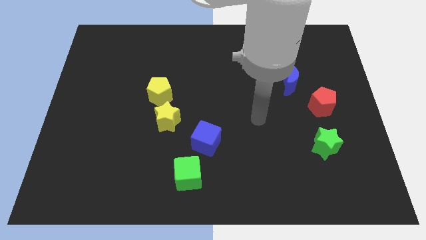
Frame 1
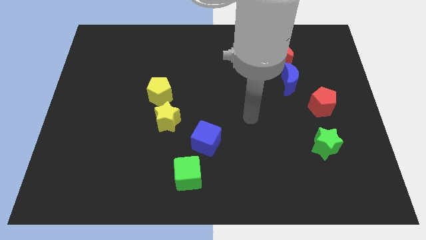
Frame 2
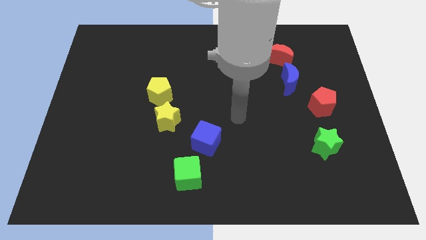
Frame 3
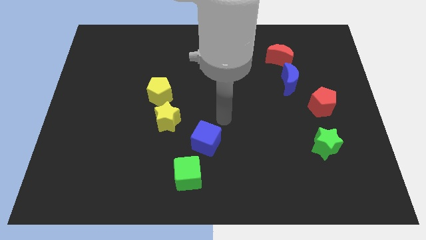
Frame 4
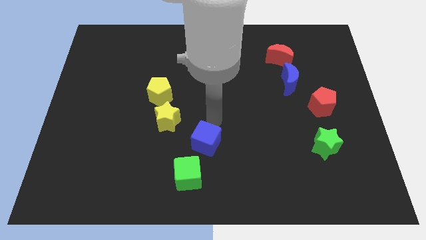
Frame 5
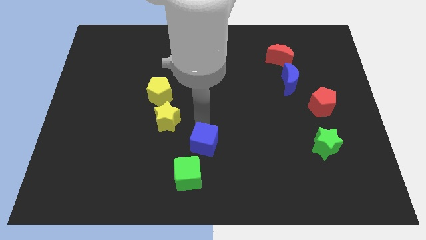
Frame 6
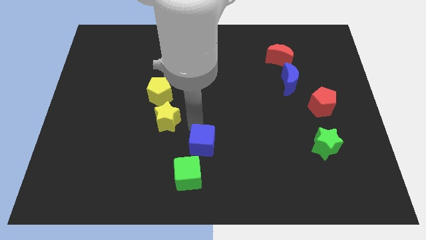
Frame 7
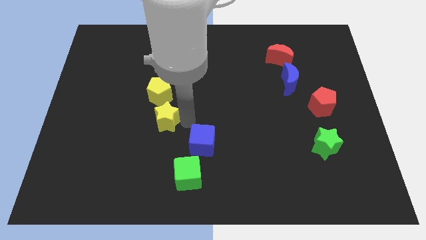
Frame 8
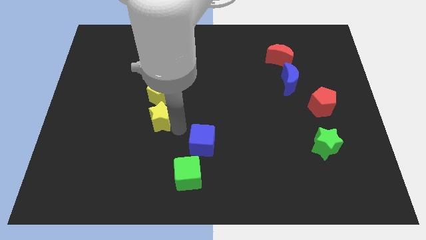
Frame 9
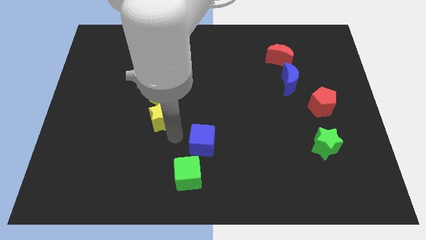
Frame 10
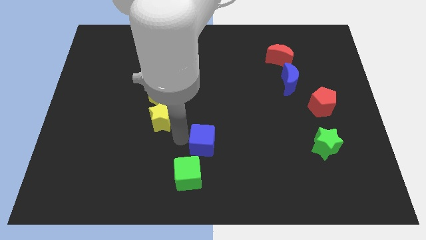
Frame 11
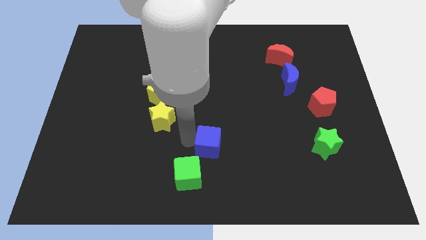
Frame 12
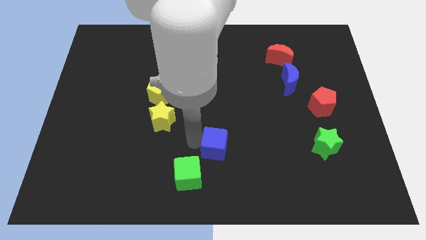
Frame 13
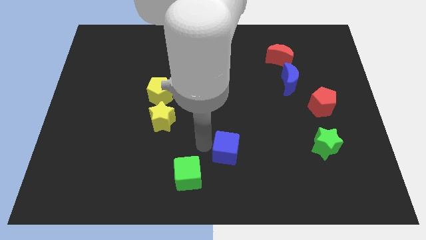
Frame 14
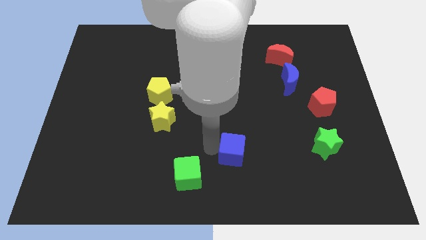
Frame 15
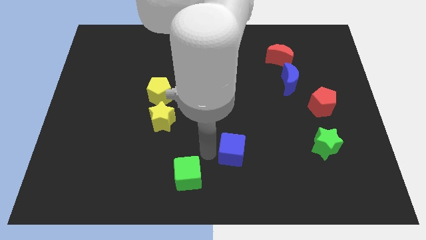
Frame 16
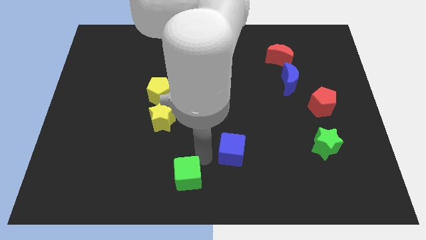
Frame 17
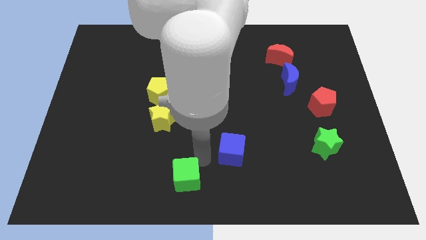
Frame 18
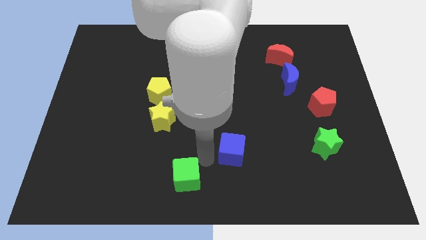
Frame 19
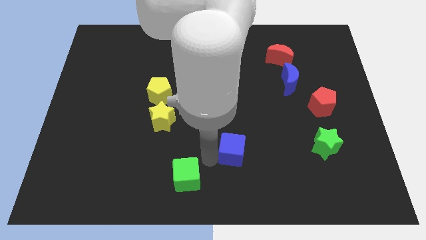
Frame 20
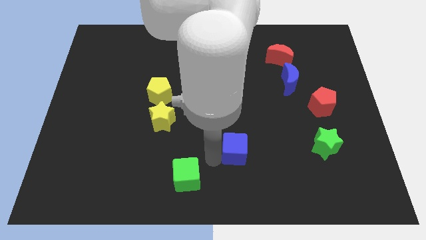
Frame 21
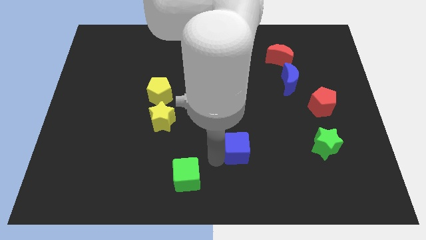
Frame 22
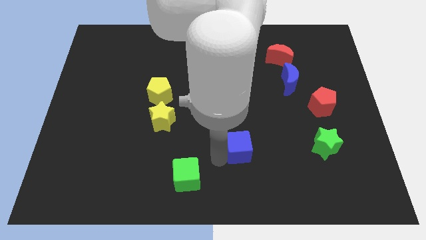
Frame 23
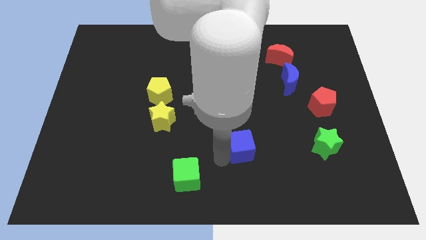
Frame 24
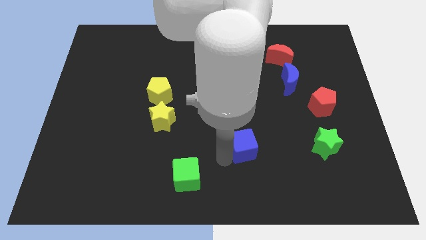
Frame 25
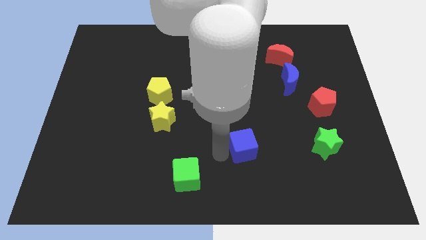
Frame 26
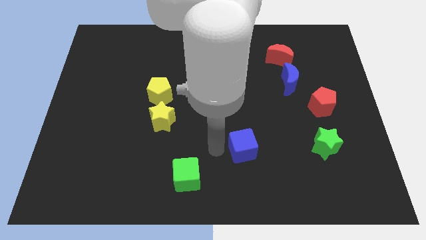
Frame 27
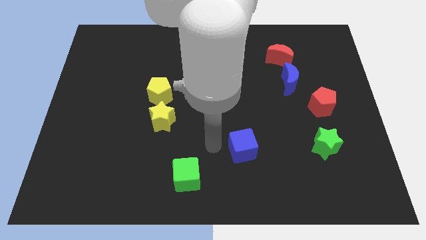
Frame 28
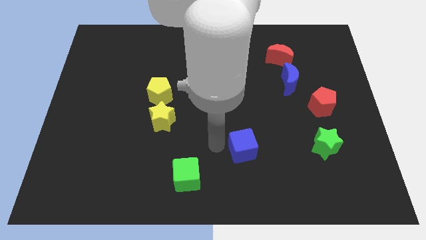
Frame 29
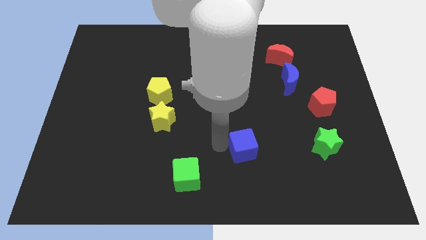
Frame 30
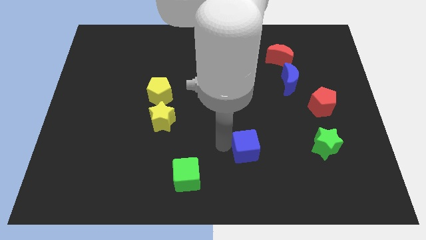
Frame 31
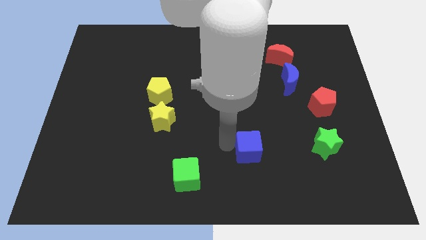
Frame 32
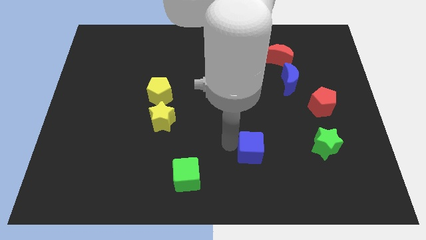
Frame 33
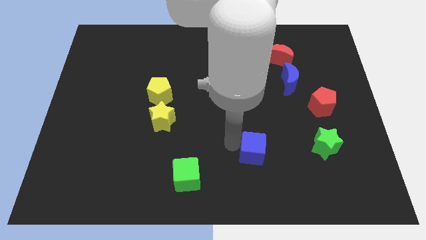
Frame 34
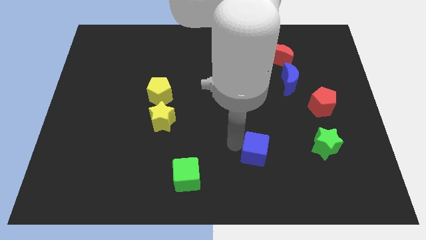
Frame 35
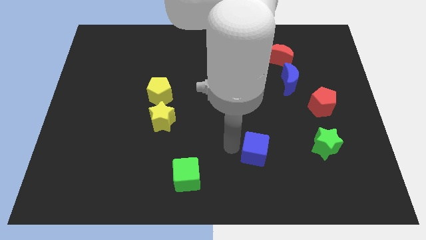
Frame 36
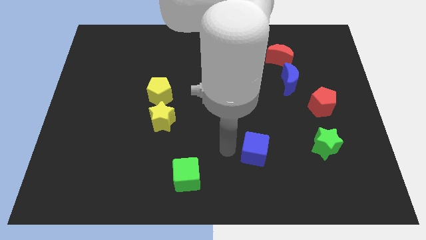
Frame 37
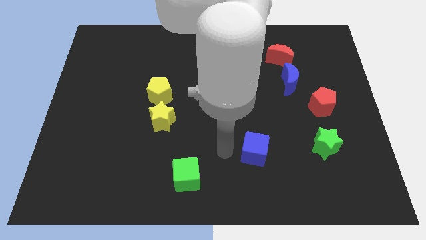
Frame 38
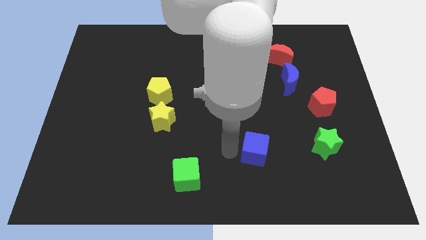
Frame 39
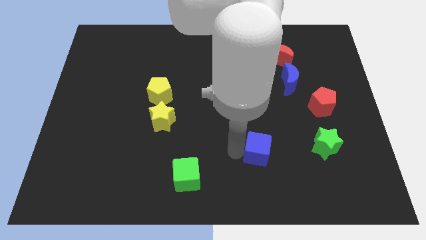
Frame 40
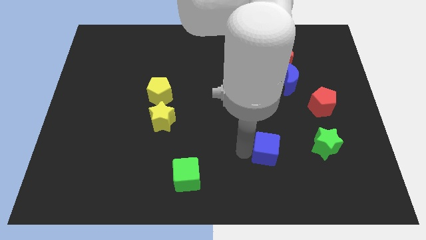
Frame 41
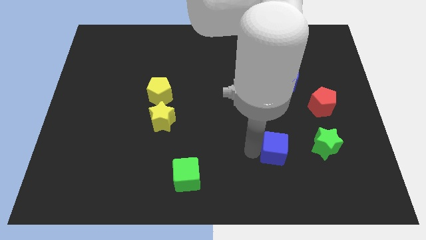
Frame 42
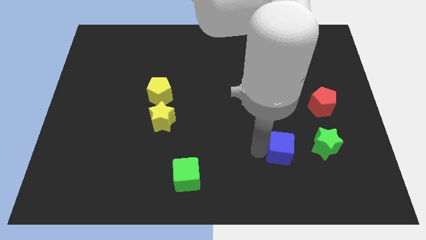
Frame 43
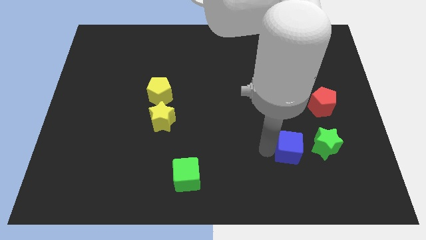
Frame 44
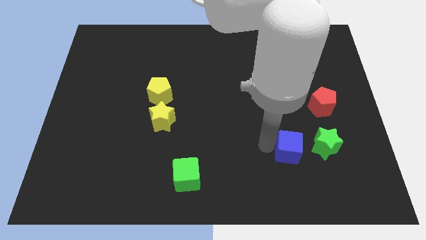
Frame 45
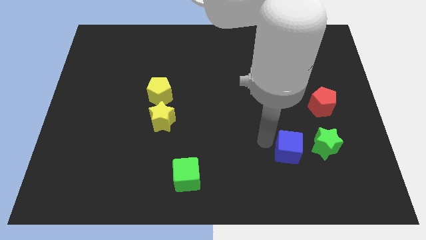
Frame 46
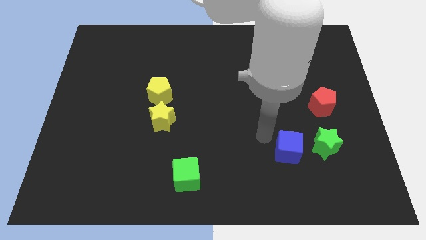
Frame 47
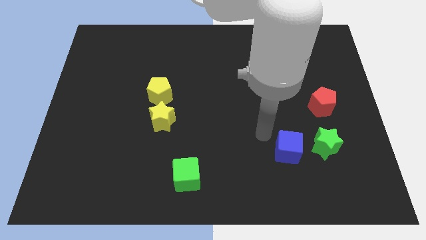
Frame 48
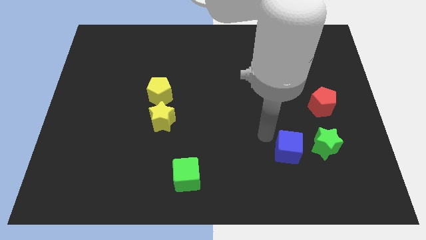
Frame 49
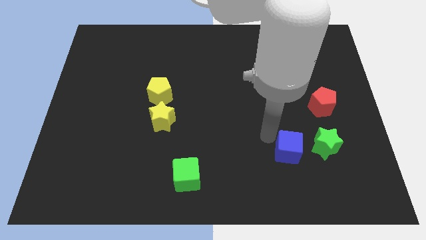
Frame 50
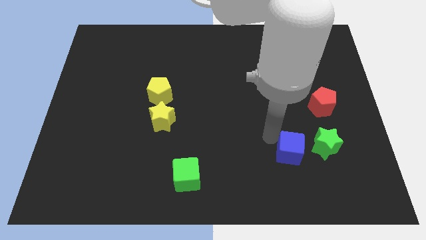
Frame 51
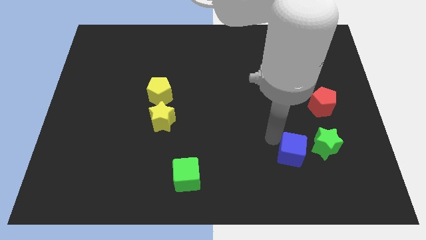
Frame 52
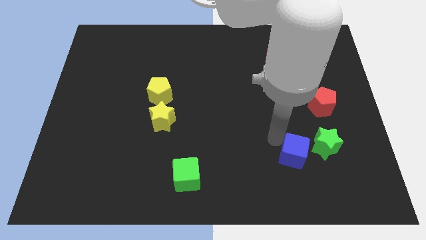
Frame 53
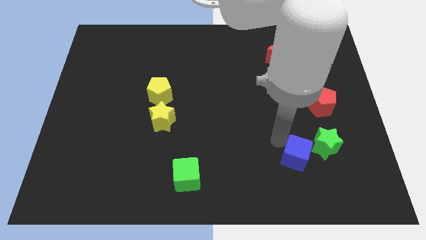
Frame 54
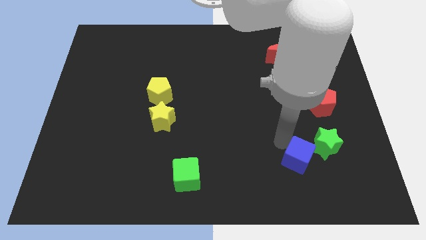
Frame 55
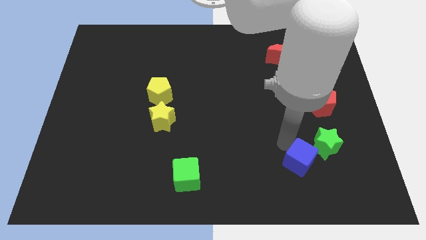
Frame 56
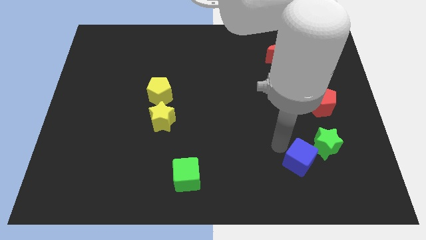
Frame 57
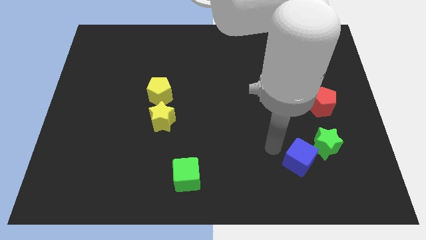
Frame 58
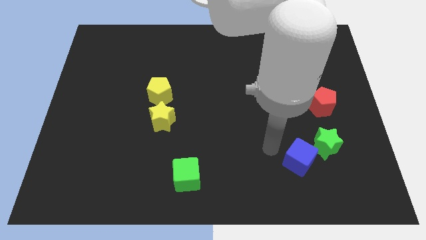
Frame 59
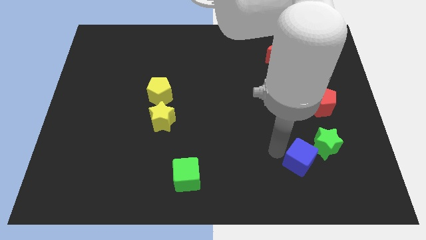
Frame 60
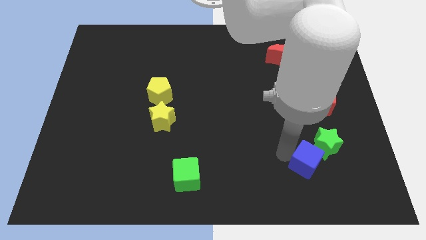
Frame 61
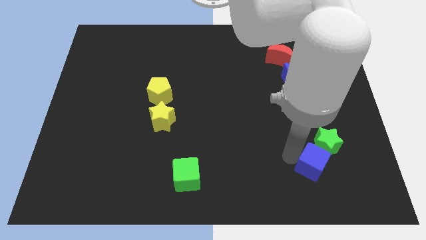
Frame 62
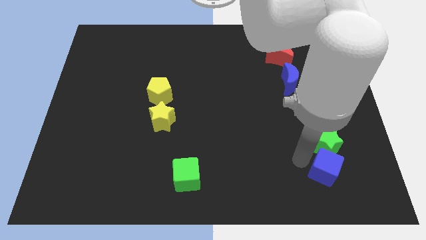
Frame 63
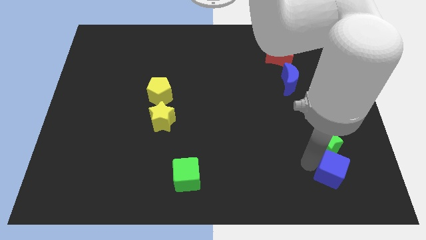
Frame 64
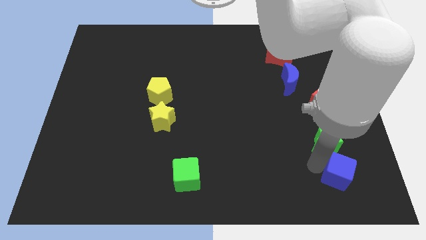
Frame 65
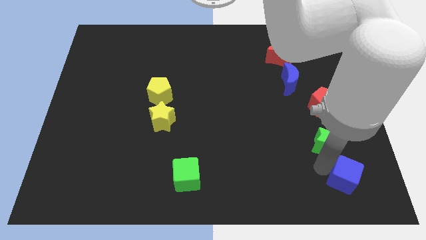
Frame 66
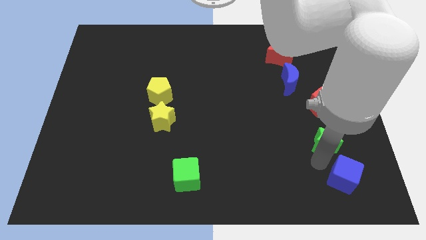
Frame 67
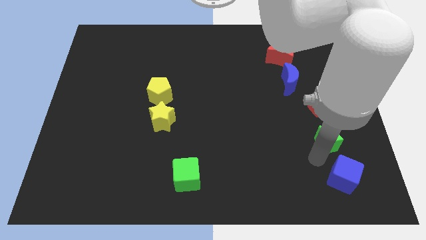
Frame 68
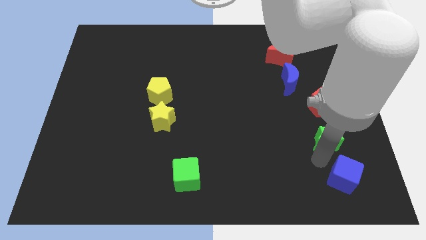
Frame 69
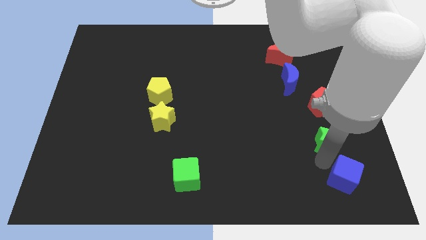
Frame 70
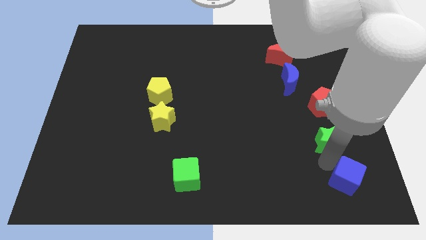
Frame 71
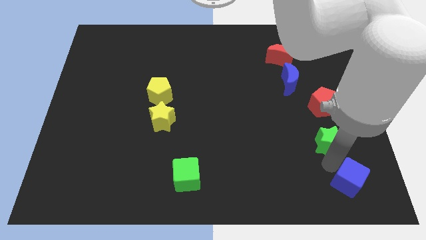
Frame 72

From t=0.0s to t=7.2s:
move the blue cube to the bottom right of the board
